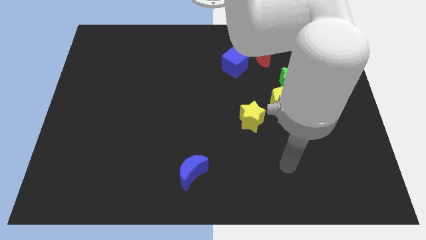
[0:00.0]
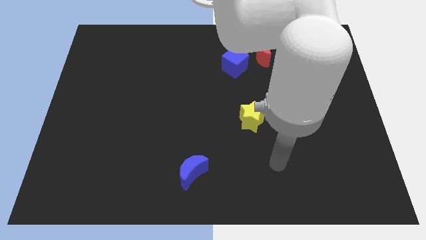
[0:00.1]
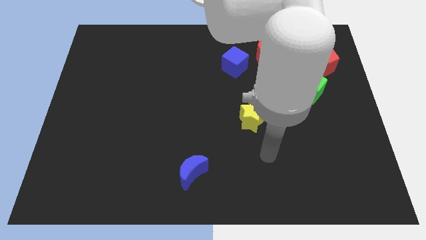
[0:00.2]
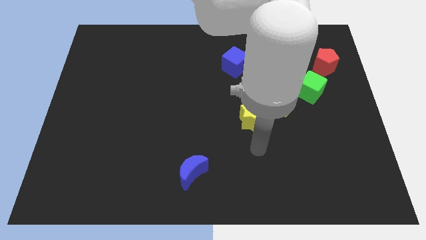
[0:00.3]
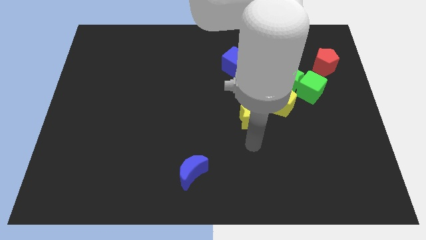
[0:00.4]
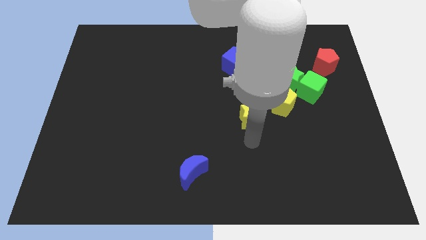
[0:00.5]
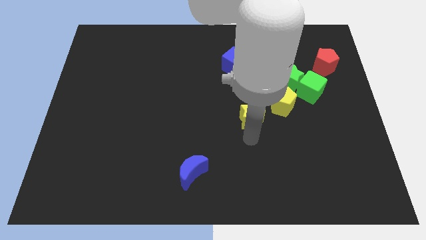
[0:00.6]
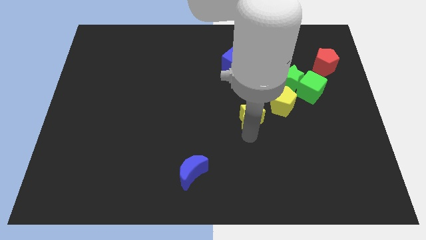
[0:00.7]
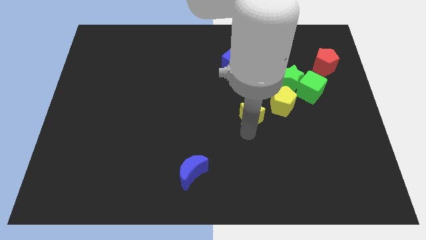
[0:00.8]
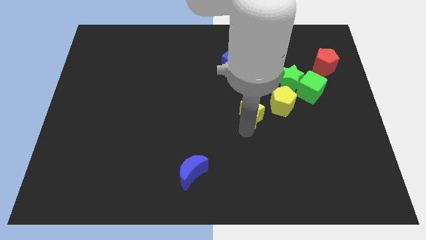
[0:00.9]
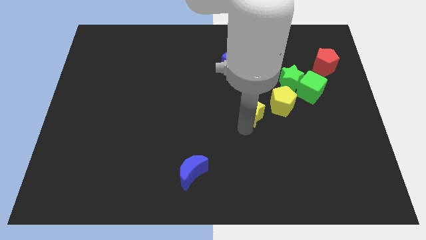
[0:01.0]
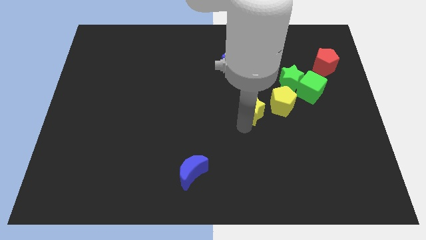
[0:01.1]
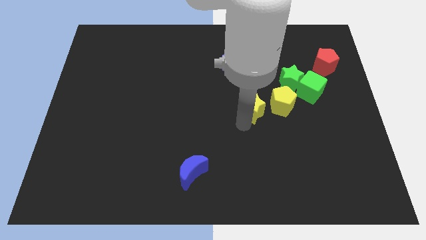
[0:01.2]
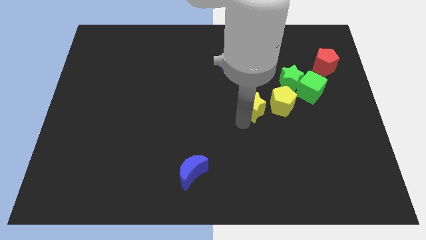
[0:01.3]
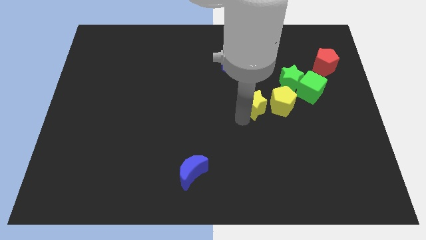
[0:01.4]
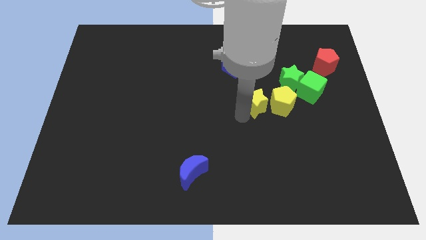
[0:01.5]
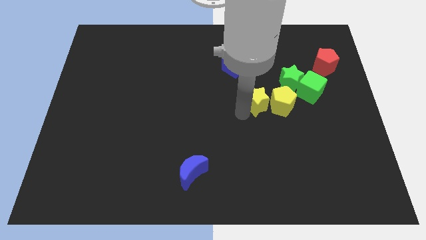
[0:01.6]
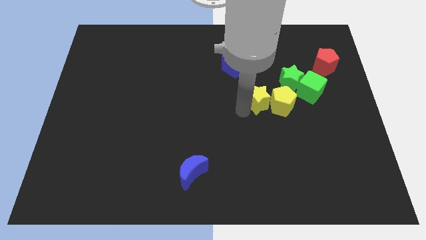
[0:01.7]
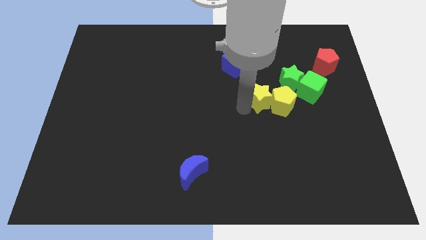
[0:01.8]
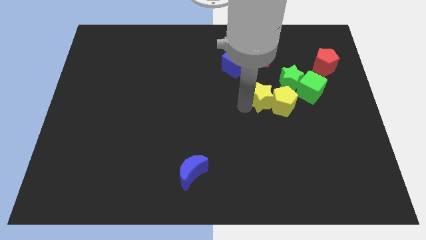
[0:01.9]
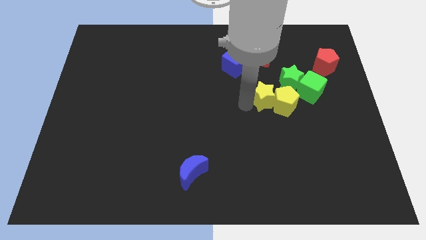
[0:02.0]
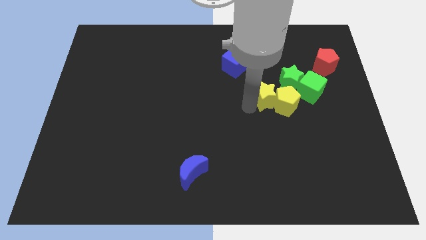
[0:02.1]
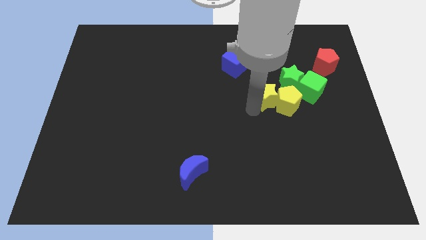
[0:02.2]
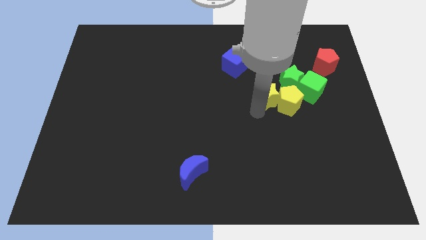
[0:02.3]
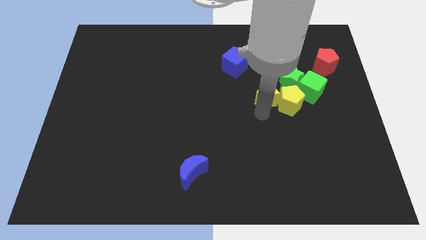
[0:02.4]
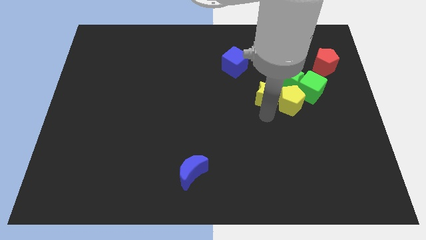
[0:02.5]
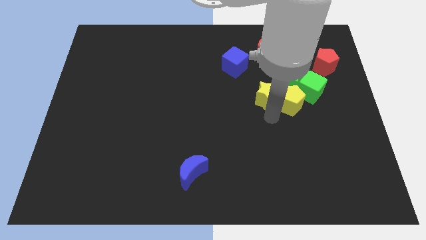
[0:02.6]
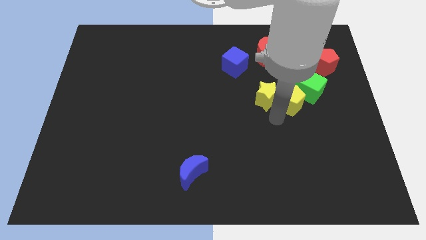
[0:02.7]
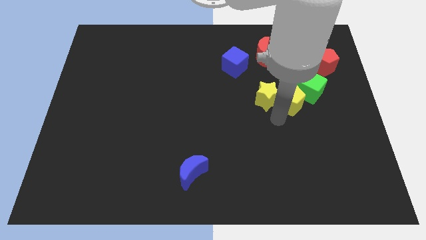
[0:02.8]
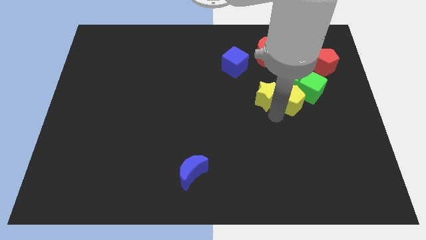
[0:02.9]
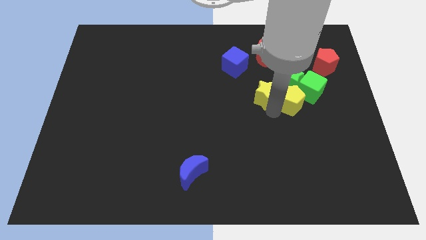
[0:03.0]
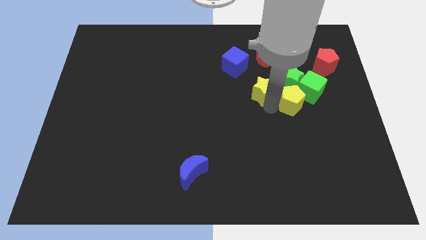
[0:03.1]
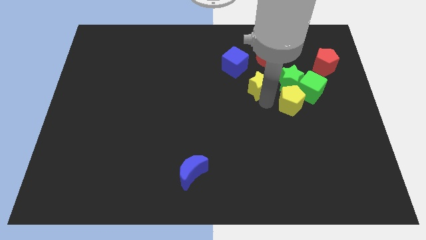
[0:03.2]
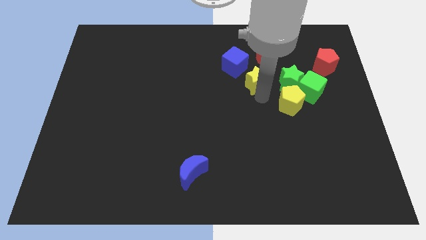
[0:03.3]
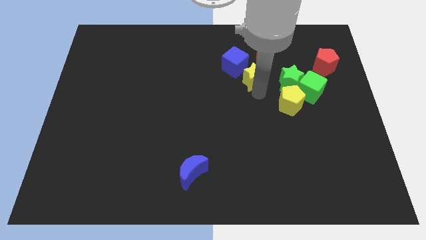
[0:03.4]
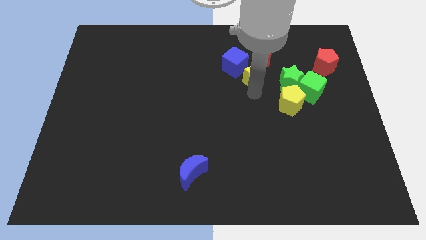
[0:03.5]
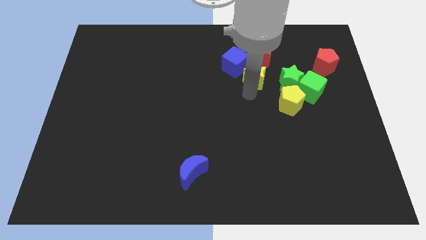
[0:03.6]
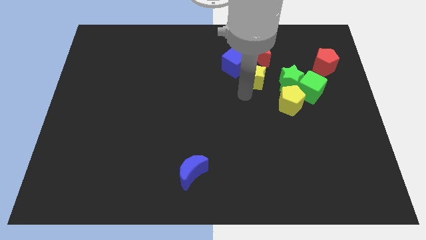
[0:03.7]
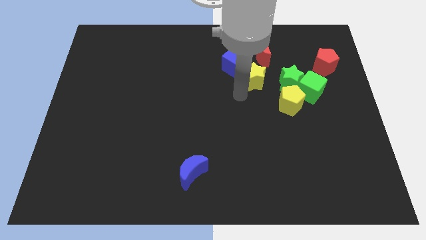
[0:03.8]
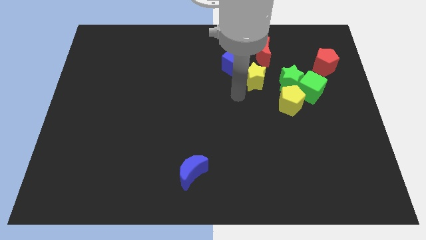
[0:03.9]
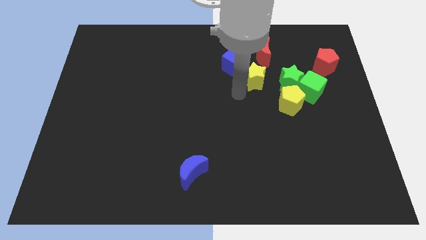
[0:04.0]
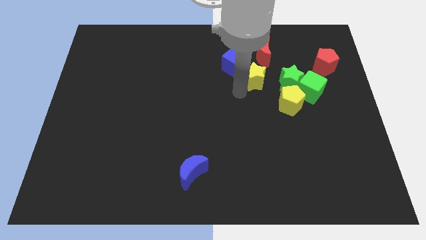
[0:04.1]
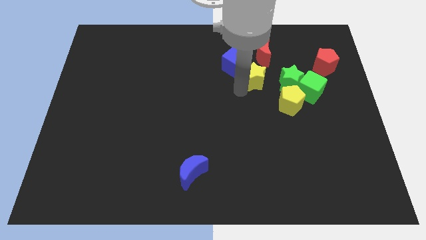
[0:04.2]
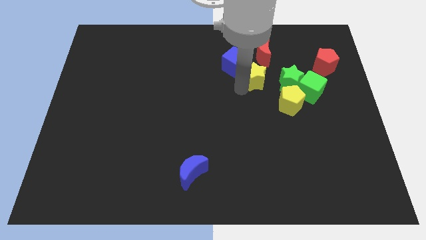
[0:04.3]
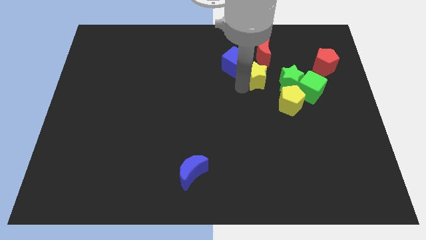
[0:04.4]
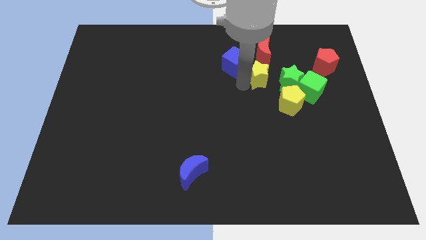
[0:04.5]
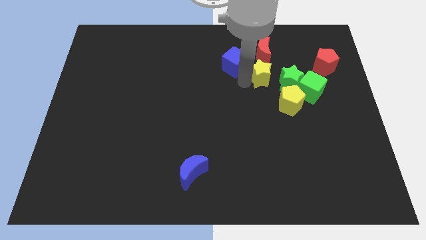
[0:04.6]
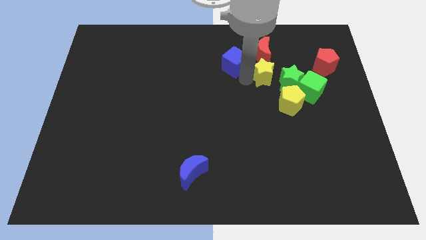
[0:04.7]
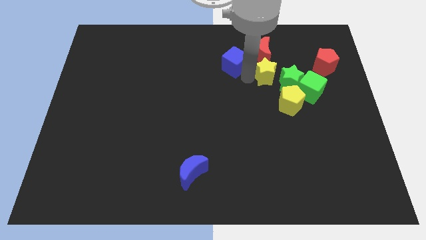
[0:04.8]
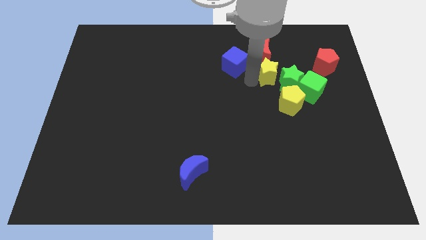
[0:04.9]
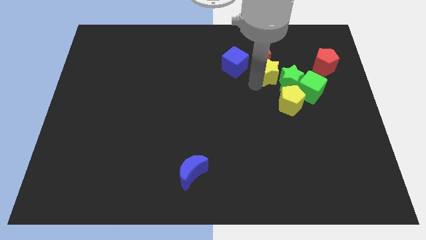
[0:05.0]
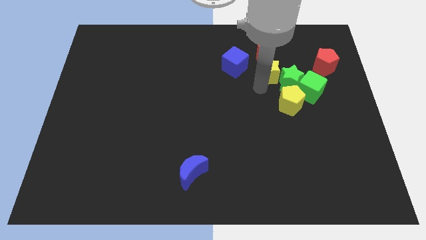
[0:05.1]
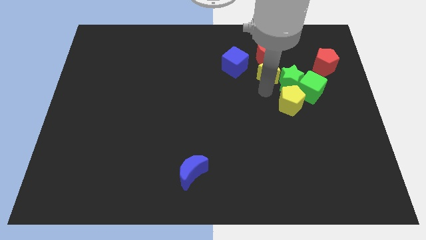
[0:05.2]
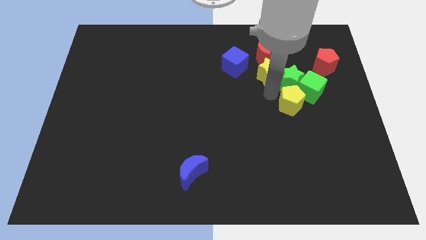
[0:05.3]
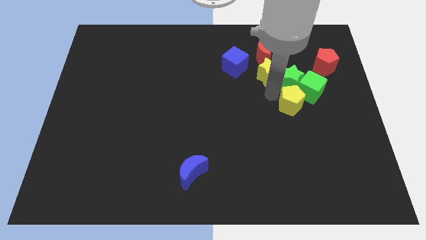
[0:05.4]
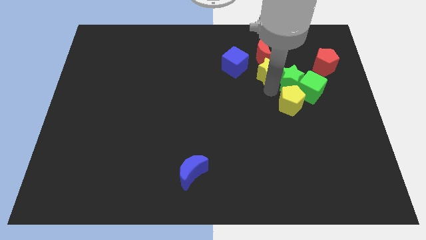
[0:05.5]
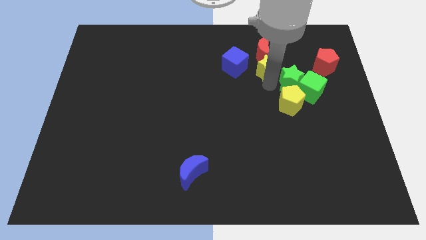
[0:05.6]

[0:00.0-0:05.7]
push the yellow star close to the red moon

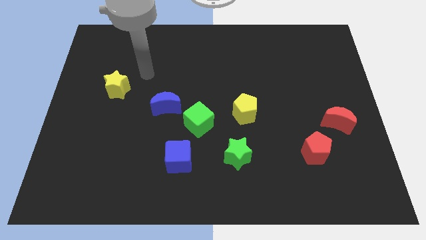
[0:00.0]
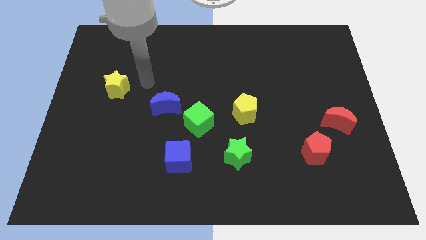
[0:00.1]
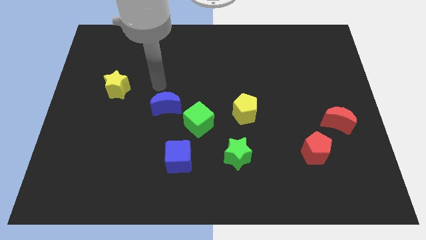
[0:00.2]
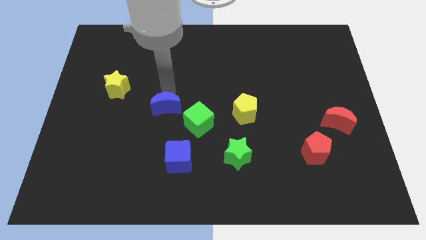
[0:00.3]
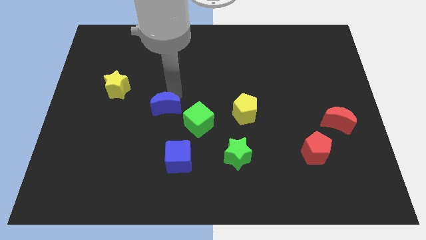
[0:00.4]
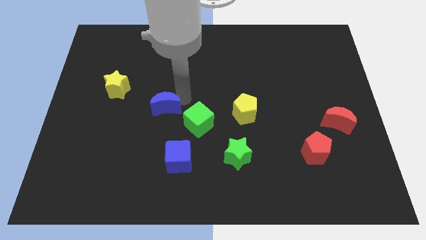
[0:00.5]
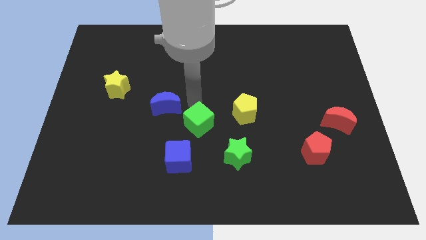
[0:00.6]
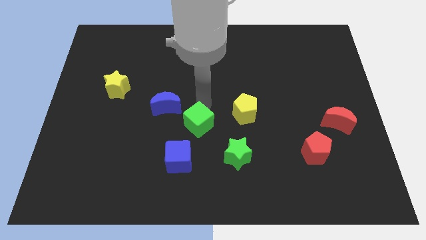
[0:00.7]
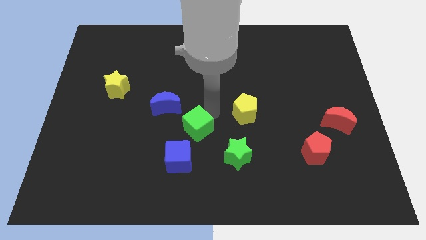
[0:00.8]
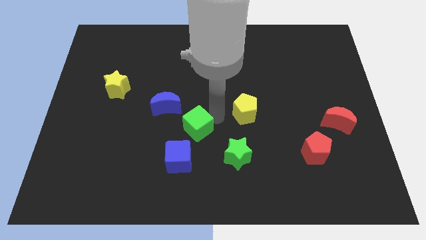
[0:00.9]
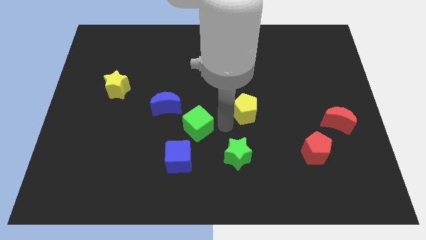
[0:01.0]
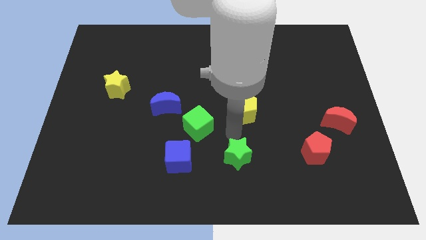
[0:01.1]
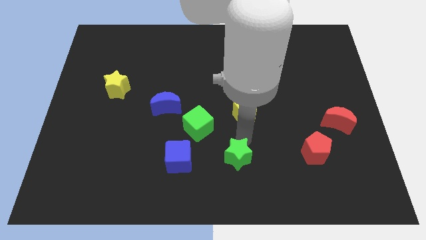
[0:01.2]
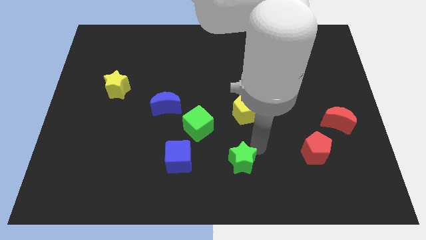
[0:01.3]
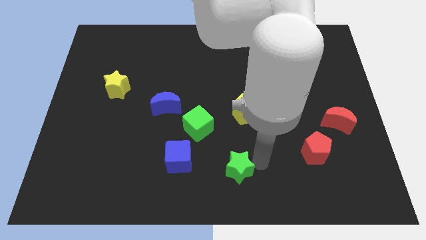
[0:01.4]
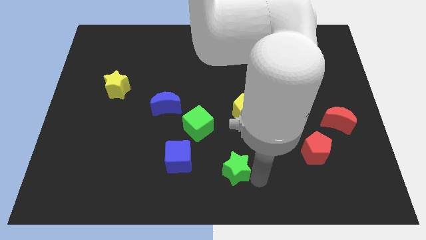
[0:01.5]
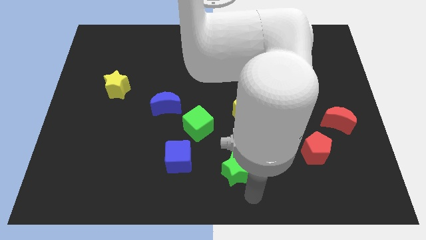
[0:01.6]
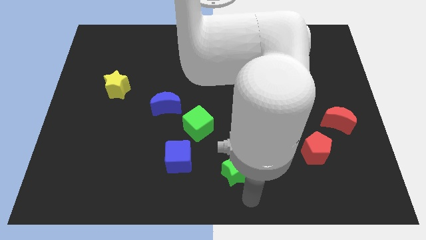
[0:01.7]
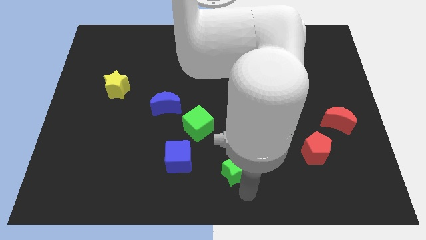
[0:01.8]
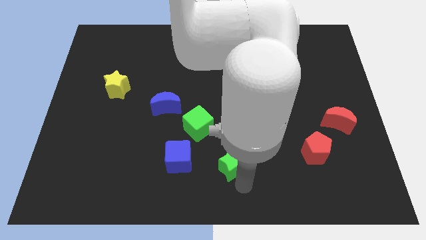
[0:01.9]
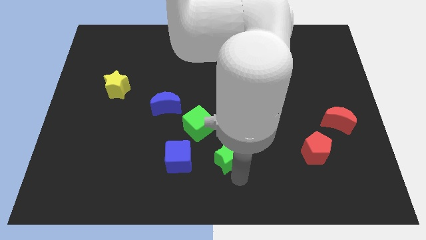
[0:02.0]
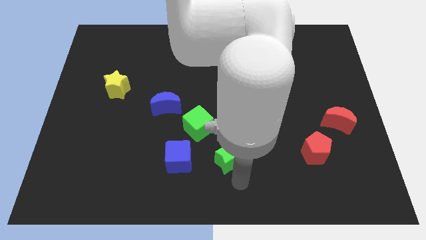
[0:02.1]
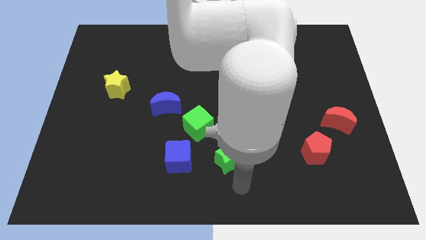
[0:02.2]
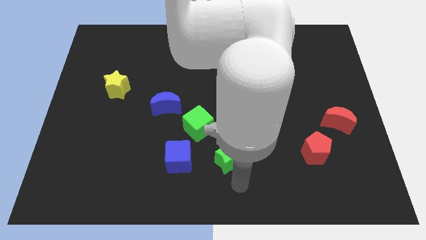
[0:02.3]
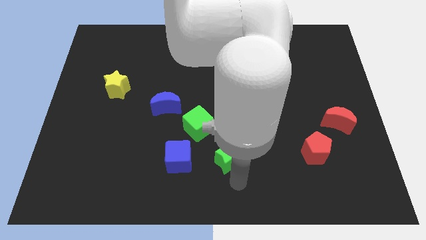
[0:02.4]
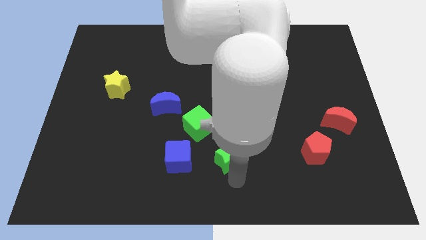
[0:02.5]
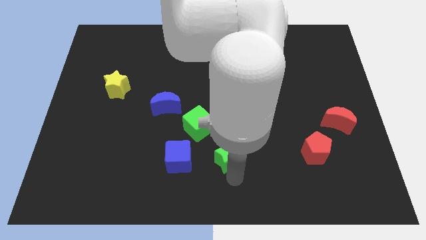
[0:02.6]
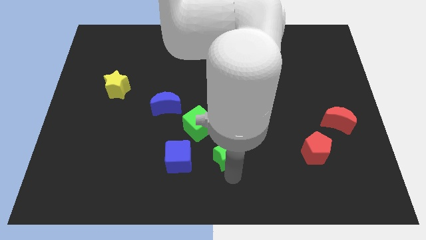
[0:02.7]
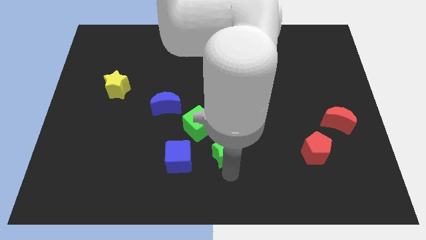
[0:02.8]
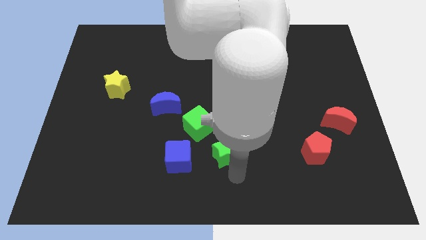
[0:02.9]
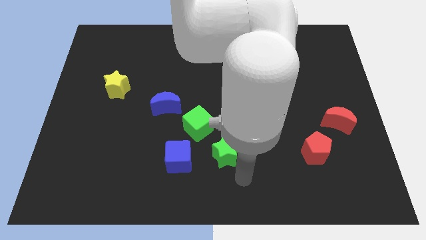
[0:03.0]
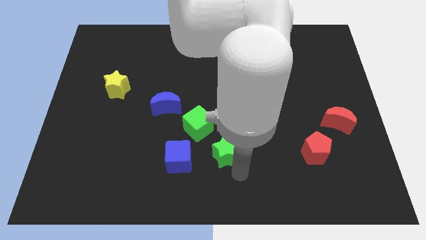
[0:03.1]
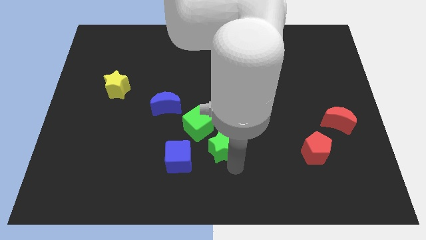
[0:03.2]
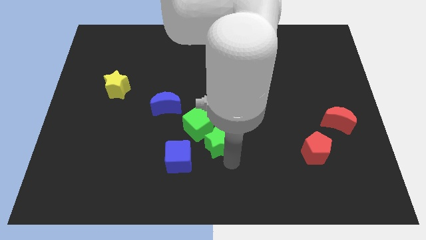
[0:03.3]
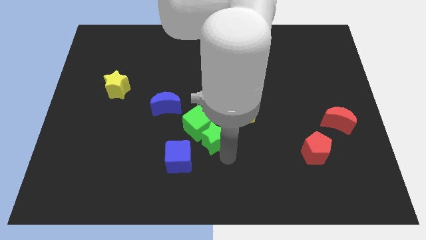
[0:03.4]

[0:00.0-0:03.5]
put the green star to the green cube
